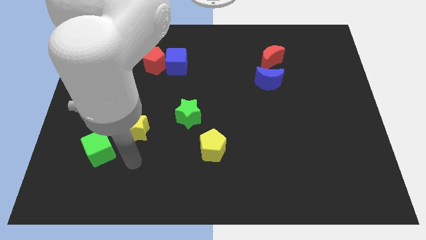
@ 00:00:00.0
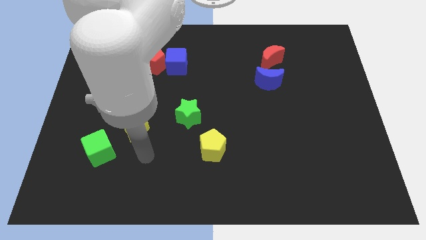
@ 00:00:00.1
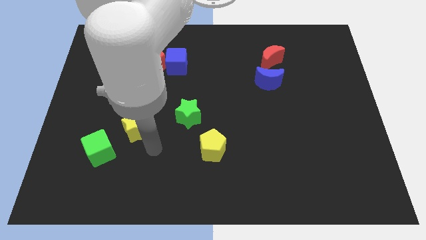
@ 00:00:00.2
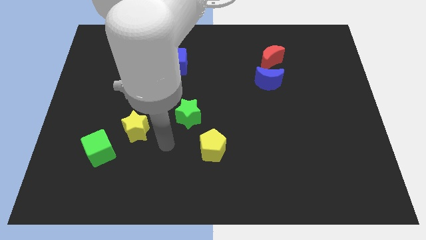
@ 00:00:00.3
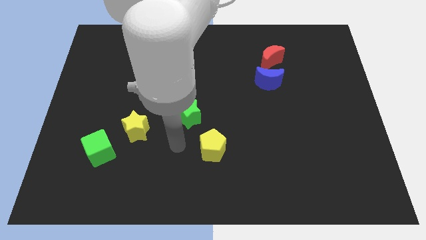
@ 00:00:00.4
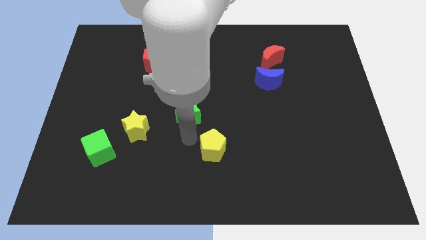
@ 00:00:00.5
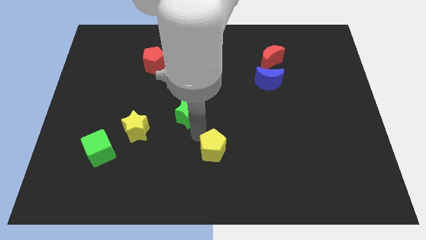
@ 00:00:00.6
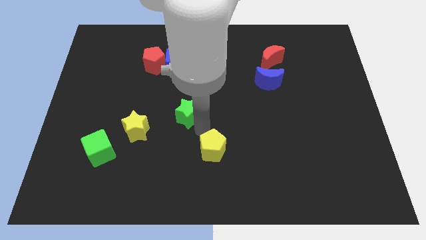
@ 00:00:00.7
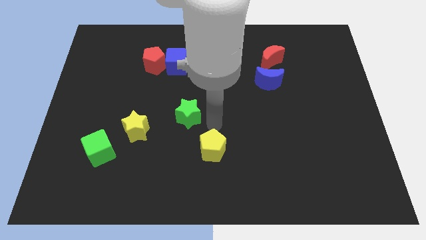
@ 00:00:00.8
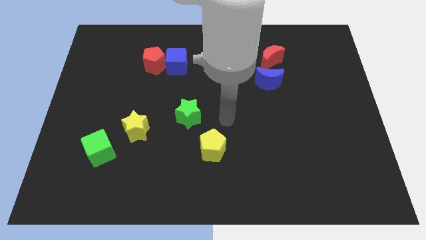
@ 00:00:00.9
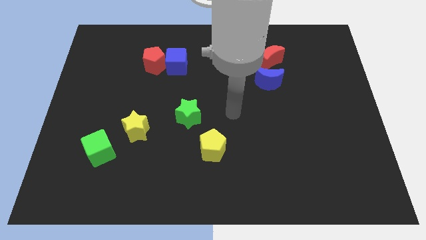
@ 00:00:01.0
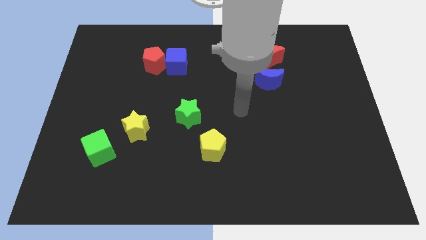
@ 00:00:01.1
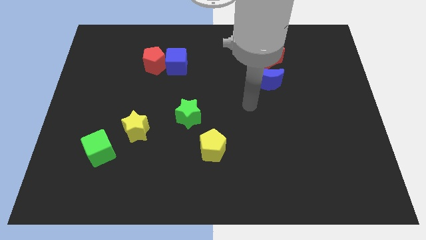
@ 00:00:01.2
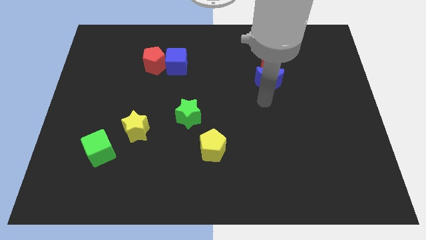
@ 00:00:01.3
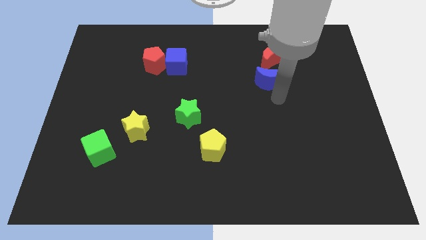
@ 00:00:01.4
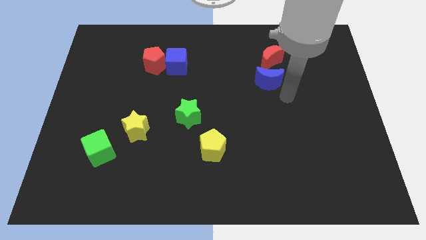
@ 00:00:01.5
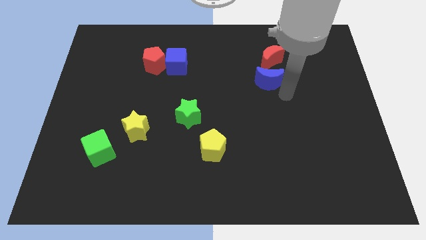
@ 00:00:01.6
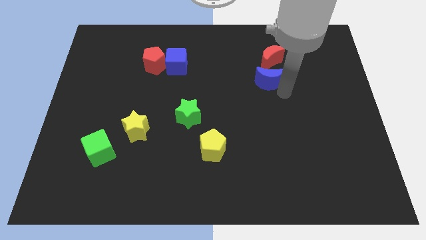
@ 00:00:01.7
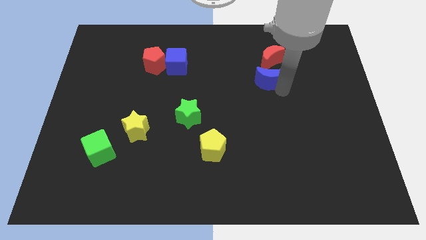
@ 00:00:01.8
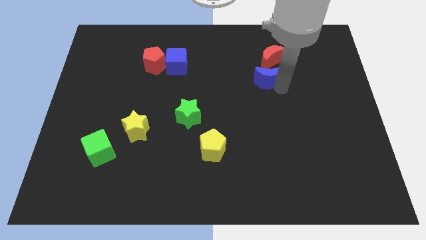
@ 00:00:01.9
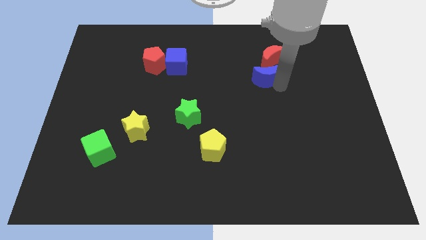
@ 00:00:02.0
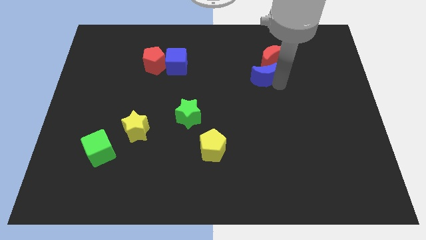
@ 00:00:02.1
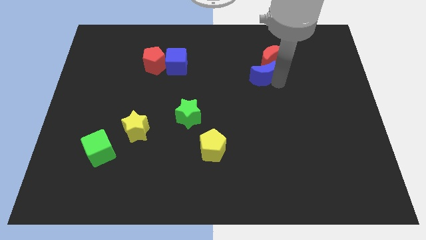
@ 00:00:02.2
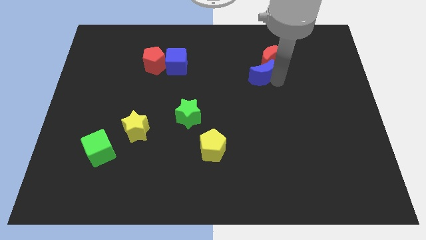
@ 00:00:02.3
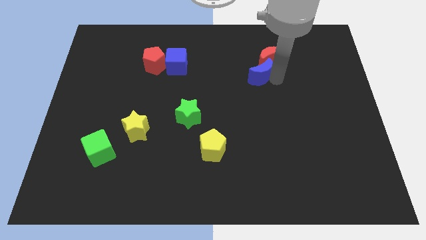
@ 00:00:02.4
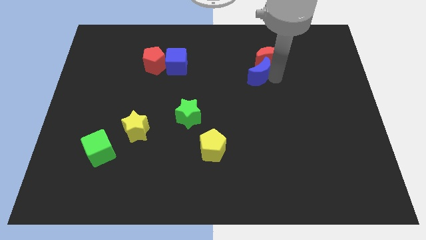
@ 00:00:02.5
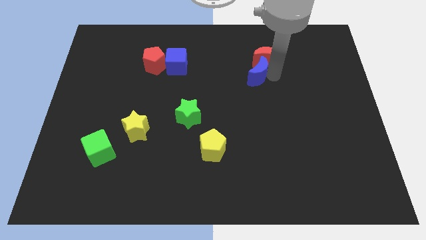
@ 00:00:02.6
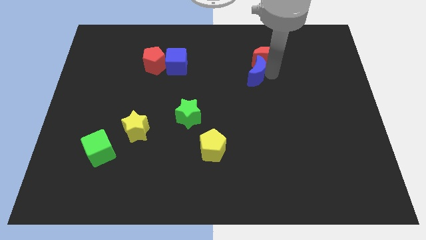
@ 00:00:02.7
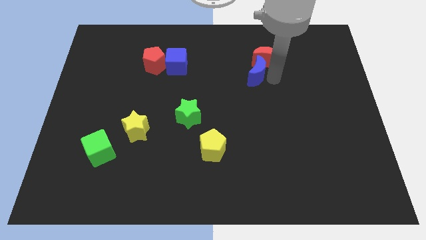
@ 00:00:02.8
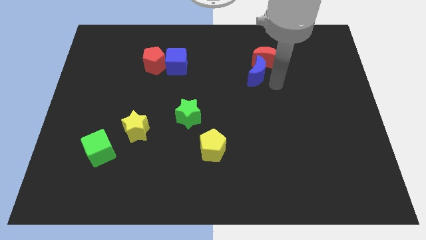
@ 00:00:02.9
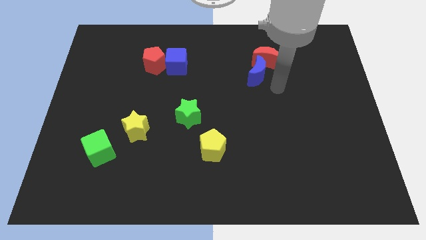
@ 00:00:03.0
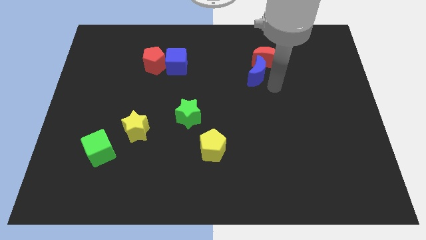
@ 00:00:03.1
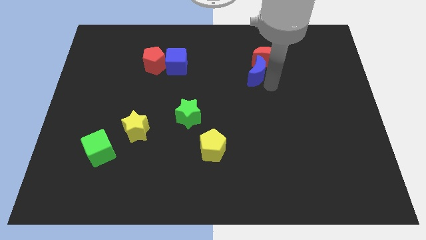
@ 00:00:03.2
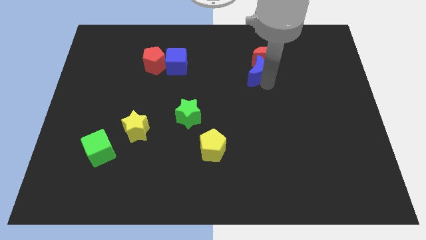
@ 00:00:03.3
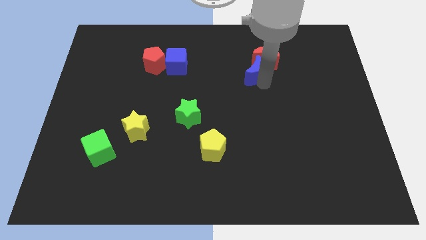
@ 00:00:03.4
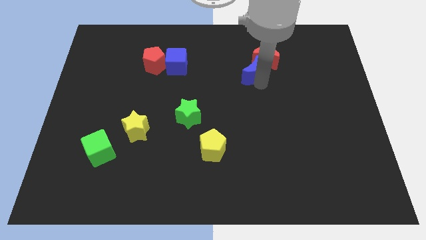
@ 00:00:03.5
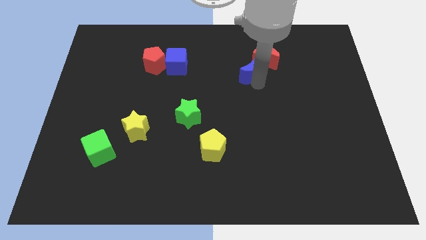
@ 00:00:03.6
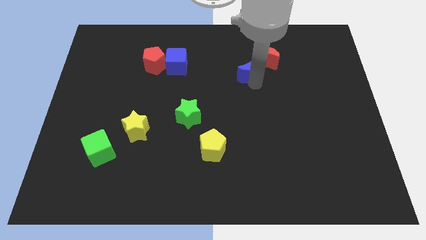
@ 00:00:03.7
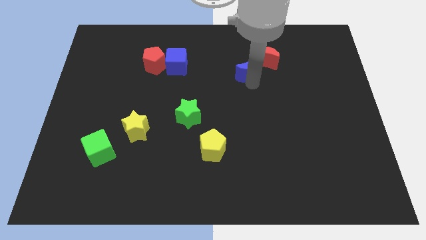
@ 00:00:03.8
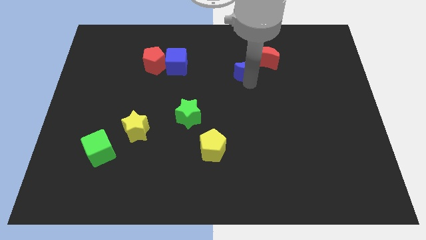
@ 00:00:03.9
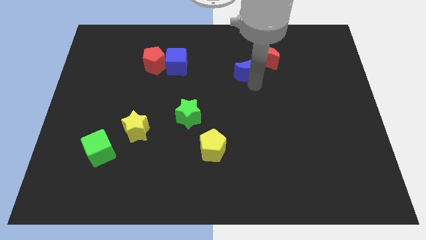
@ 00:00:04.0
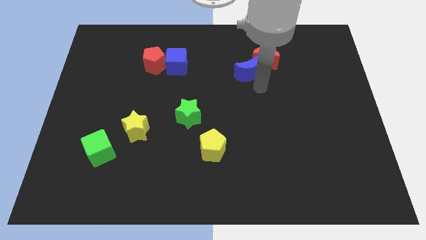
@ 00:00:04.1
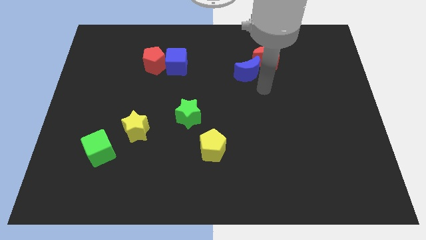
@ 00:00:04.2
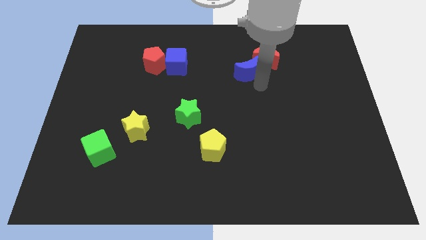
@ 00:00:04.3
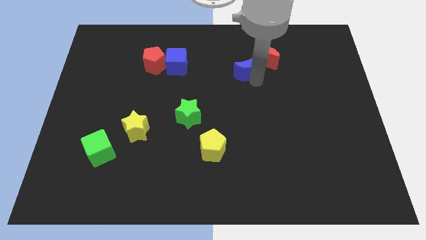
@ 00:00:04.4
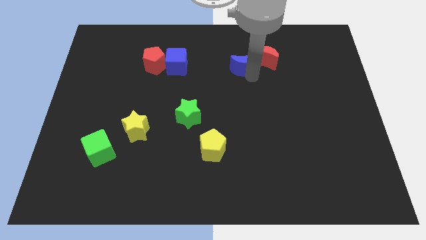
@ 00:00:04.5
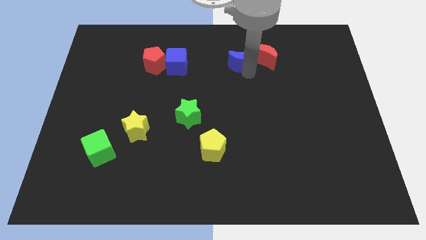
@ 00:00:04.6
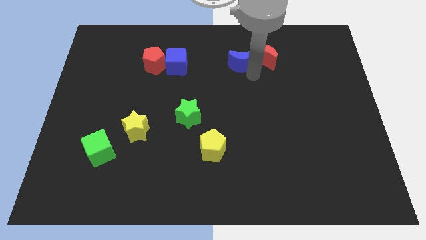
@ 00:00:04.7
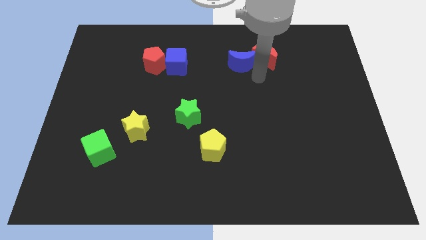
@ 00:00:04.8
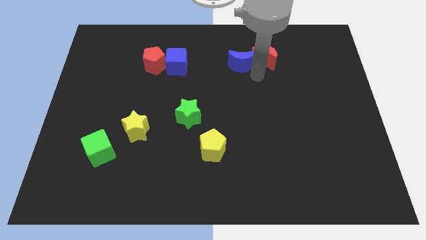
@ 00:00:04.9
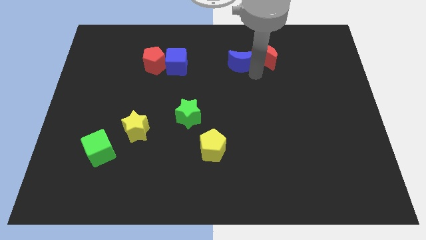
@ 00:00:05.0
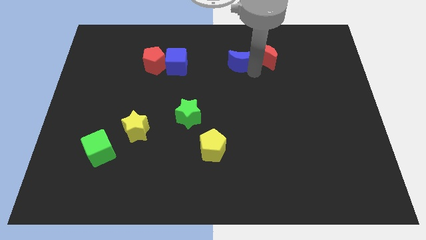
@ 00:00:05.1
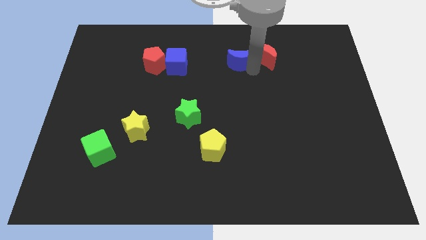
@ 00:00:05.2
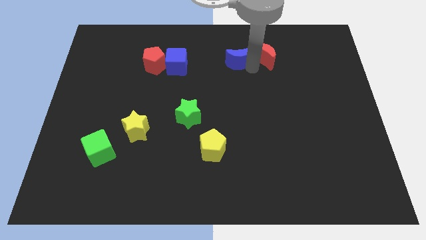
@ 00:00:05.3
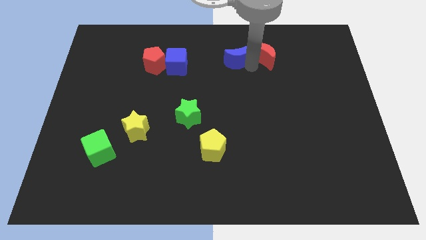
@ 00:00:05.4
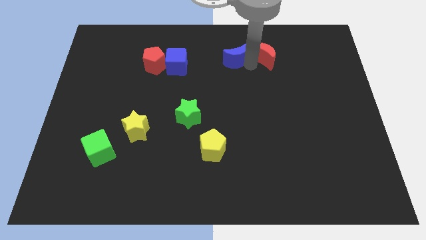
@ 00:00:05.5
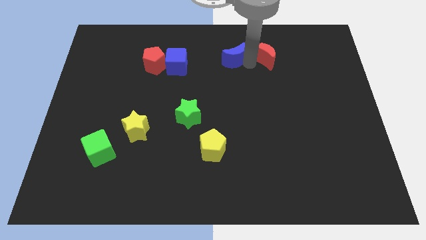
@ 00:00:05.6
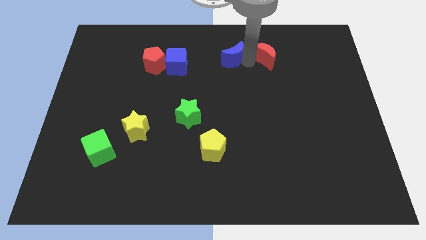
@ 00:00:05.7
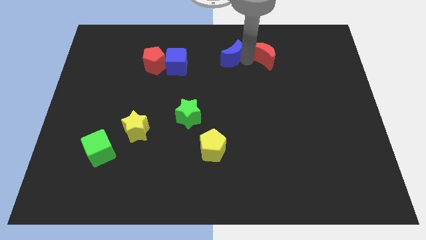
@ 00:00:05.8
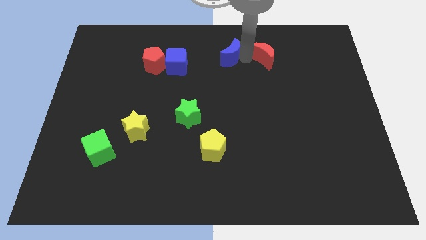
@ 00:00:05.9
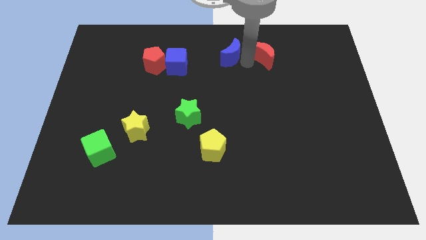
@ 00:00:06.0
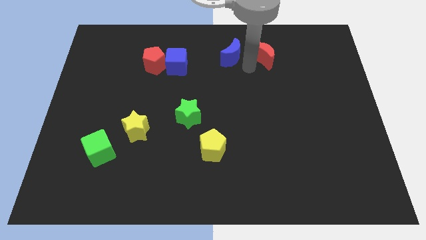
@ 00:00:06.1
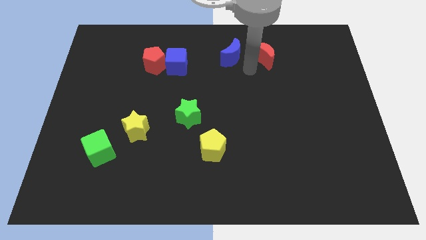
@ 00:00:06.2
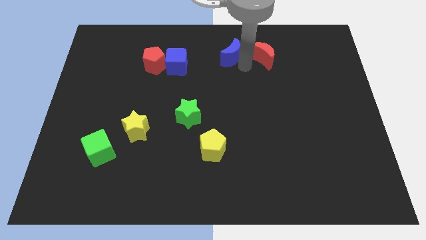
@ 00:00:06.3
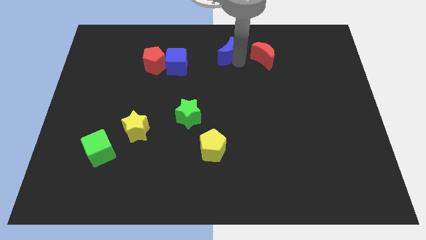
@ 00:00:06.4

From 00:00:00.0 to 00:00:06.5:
move the blue moon to the top side
